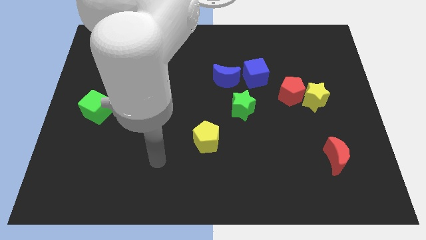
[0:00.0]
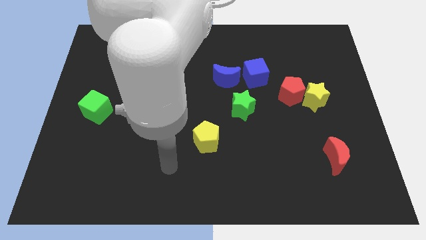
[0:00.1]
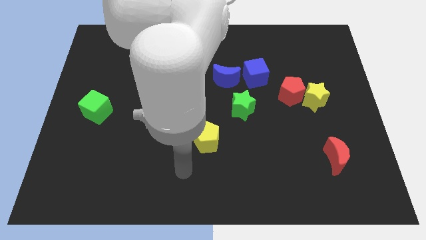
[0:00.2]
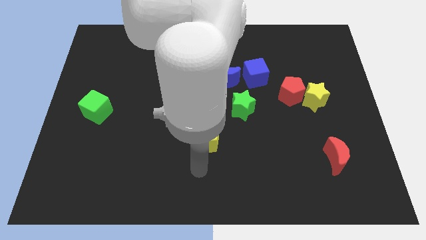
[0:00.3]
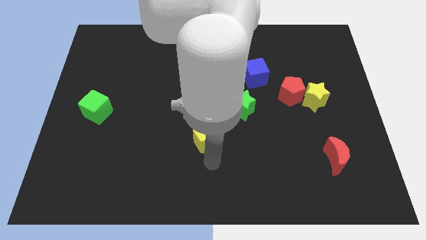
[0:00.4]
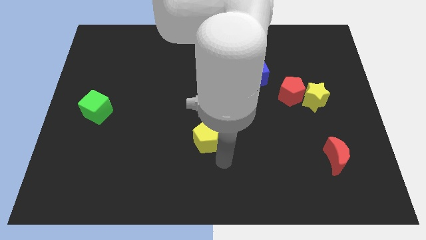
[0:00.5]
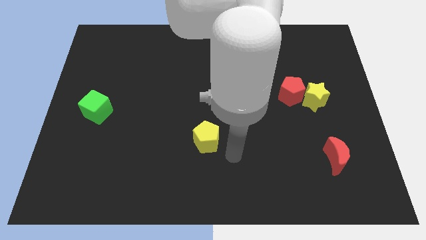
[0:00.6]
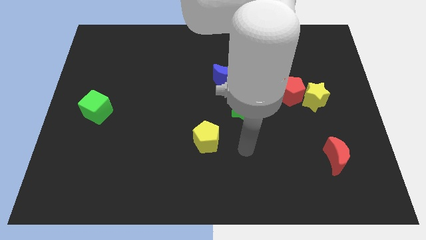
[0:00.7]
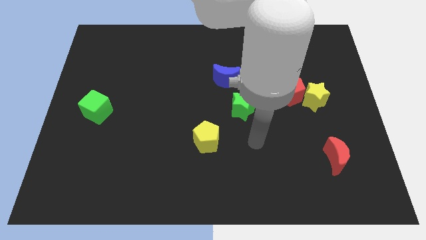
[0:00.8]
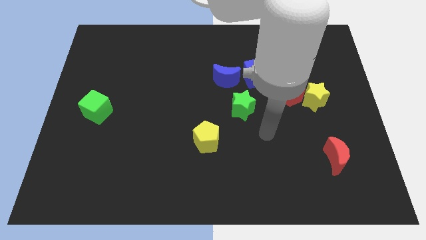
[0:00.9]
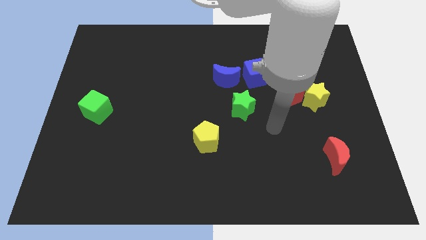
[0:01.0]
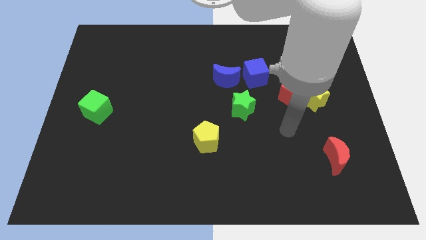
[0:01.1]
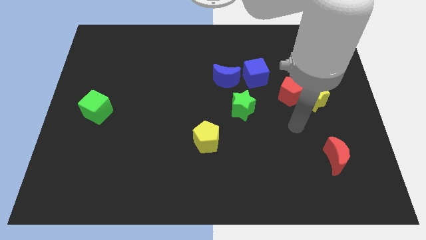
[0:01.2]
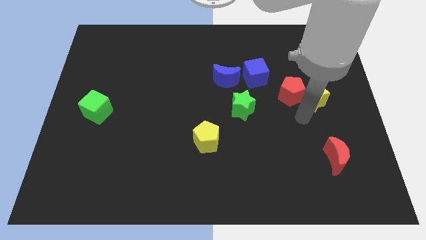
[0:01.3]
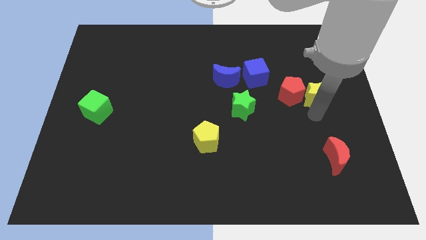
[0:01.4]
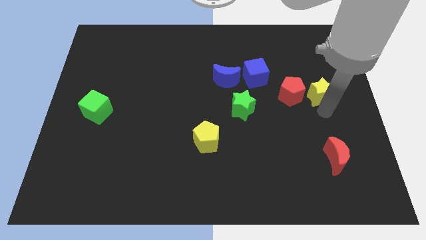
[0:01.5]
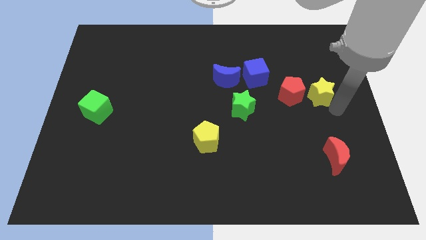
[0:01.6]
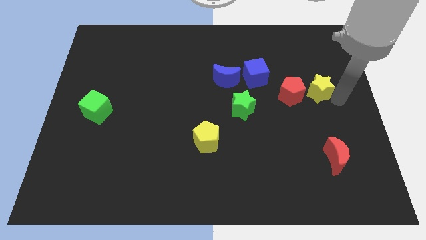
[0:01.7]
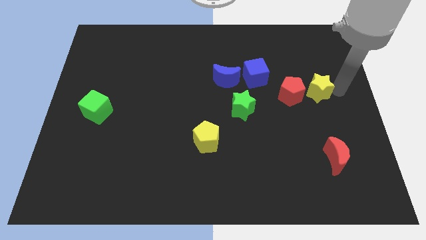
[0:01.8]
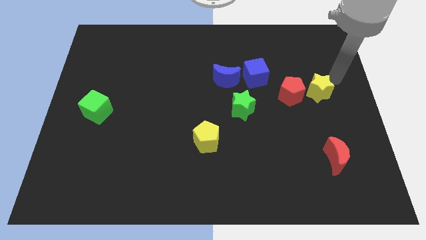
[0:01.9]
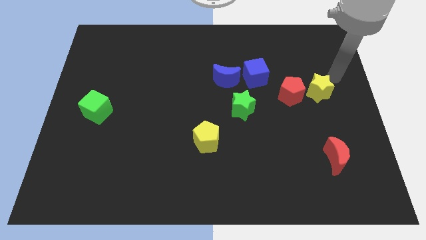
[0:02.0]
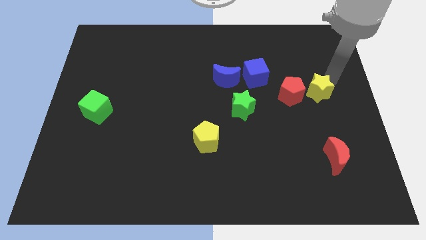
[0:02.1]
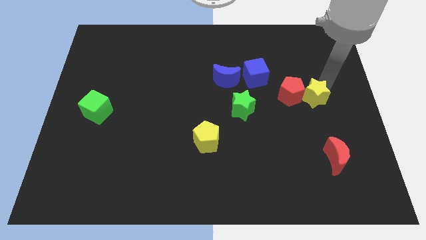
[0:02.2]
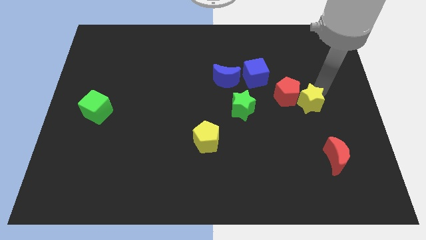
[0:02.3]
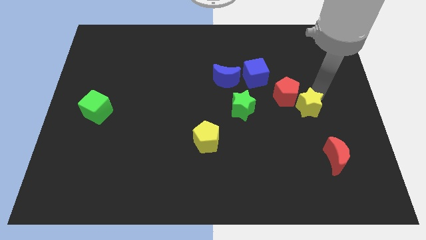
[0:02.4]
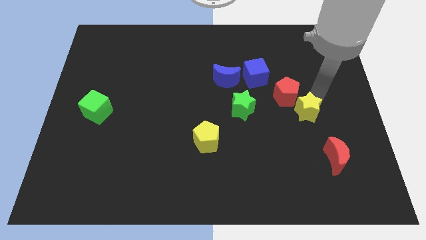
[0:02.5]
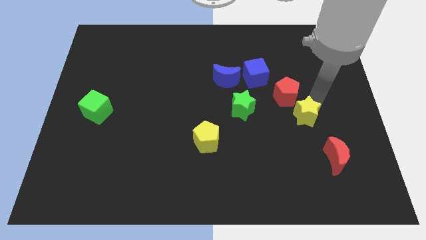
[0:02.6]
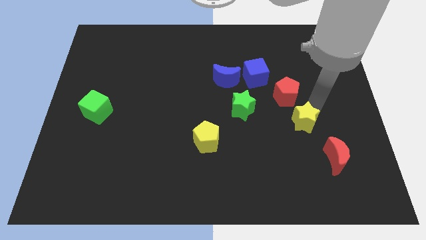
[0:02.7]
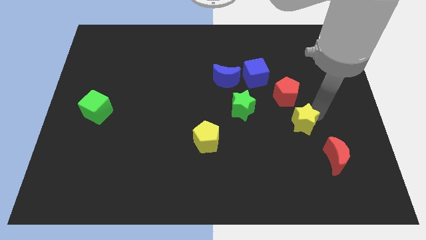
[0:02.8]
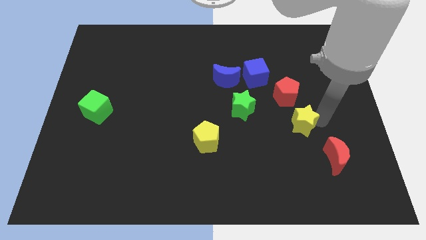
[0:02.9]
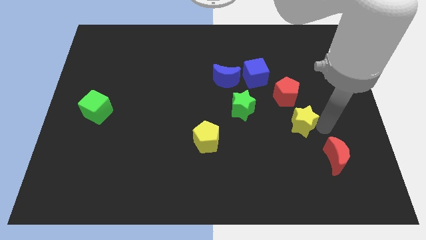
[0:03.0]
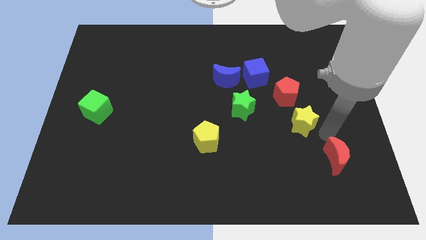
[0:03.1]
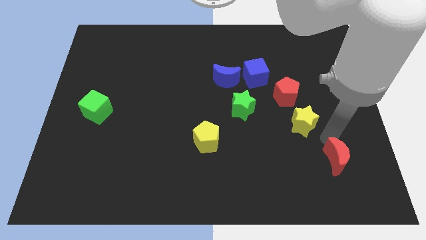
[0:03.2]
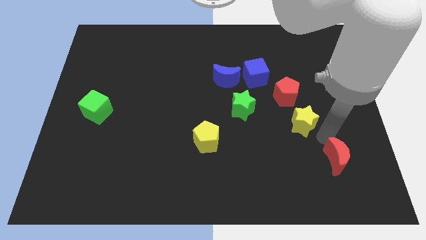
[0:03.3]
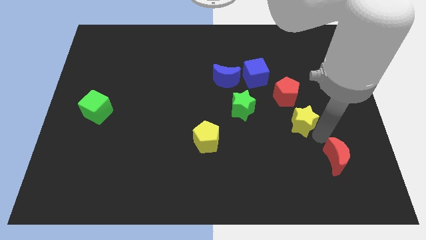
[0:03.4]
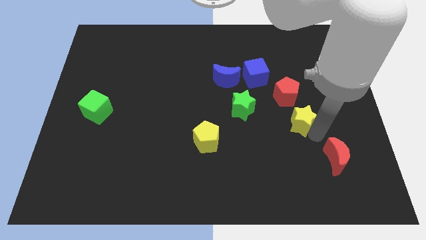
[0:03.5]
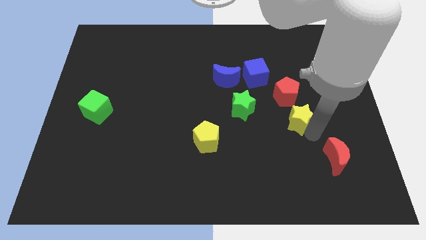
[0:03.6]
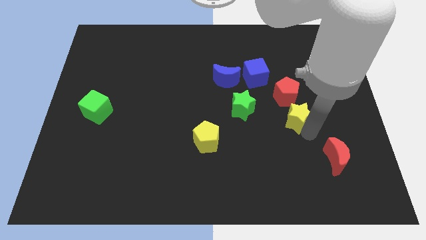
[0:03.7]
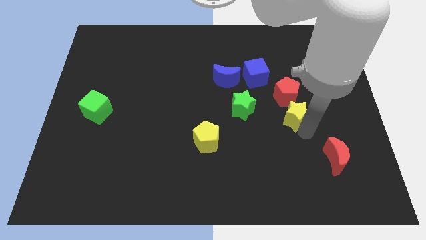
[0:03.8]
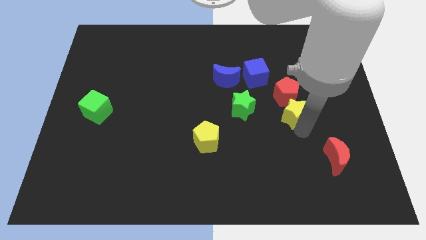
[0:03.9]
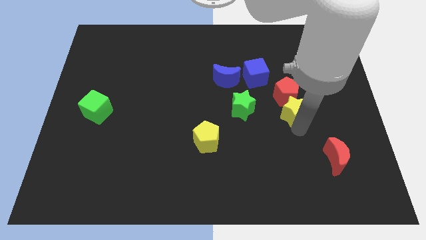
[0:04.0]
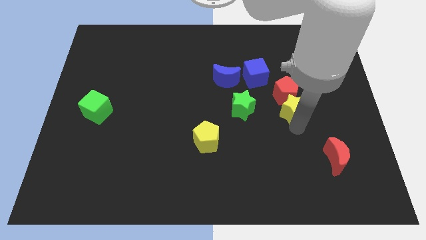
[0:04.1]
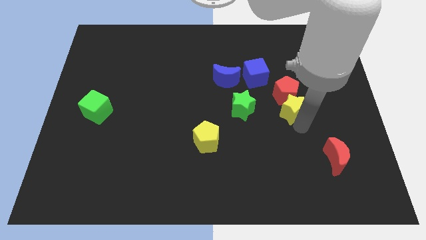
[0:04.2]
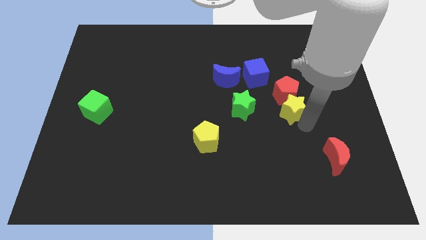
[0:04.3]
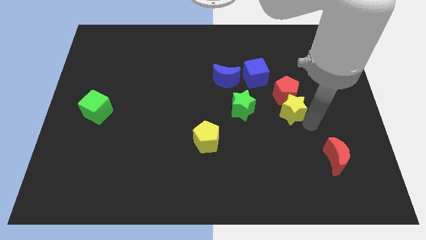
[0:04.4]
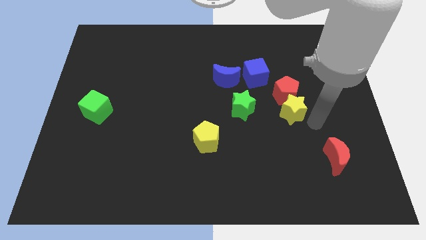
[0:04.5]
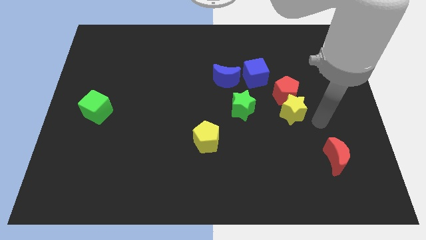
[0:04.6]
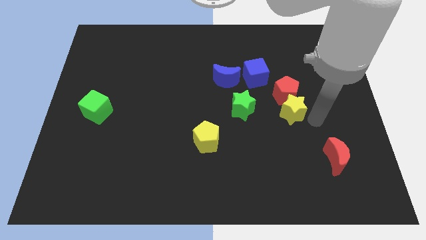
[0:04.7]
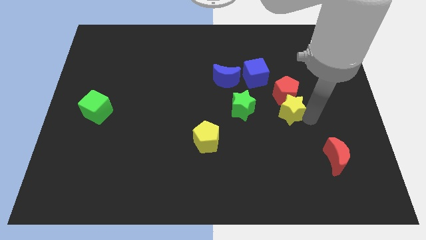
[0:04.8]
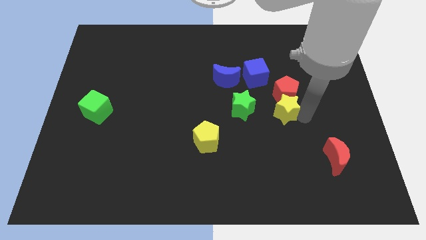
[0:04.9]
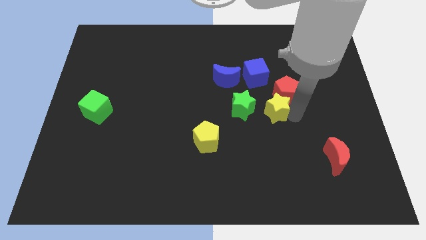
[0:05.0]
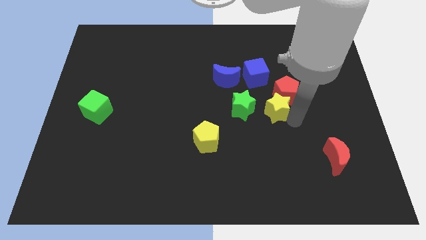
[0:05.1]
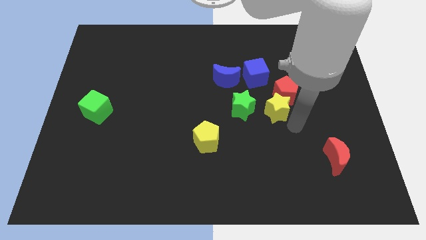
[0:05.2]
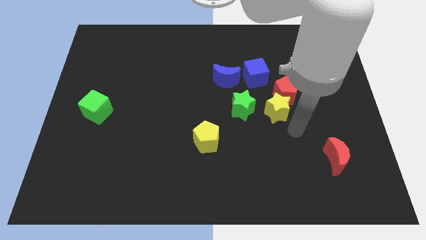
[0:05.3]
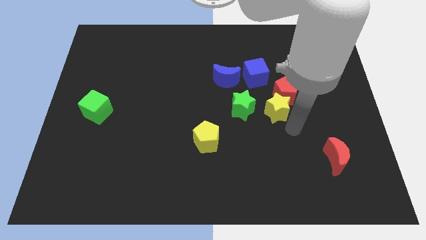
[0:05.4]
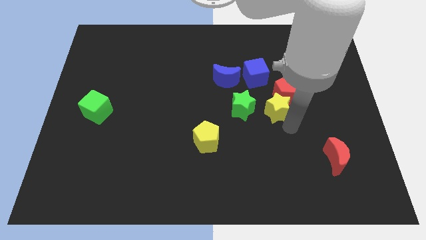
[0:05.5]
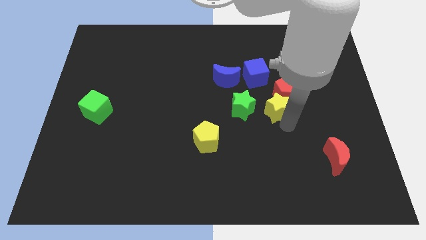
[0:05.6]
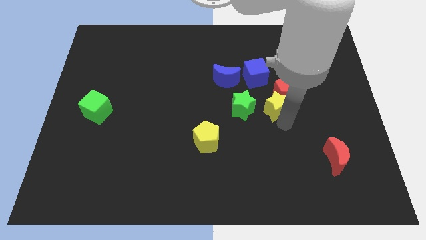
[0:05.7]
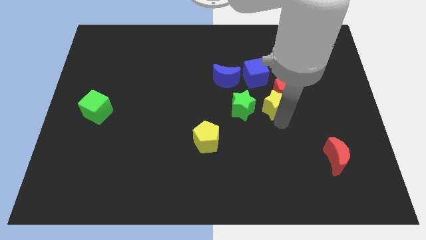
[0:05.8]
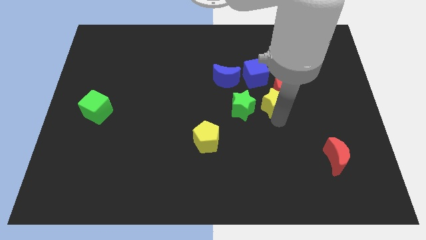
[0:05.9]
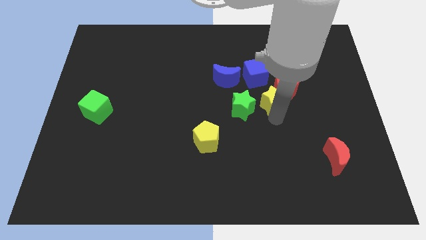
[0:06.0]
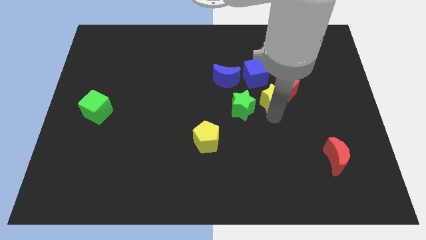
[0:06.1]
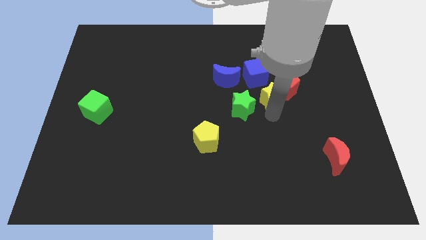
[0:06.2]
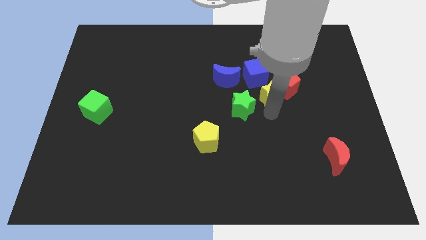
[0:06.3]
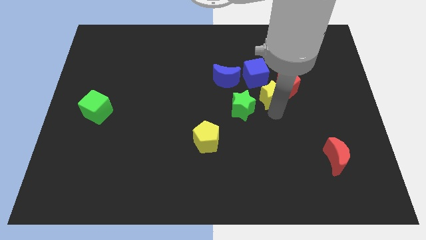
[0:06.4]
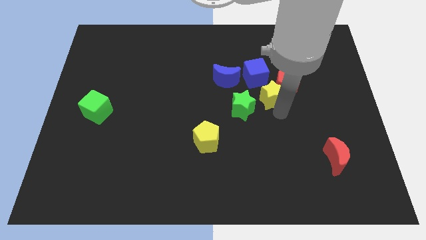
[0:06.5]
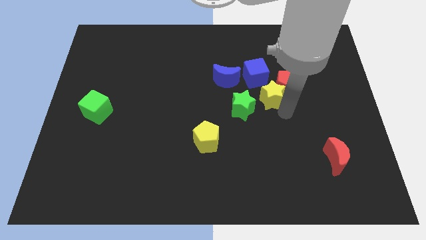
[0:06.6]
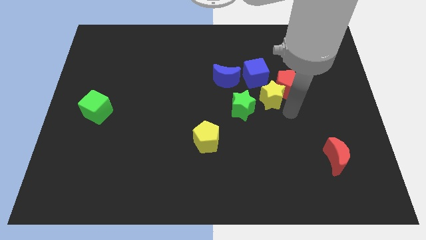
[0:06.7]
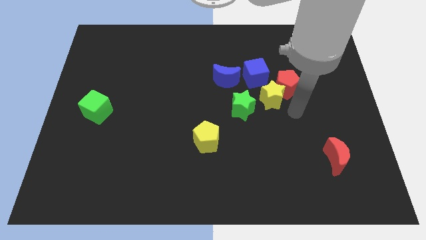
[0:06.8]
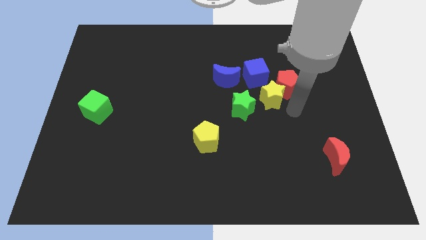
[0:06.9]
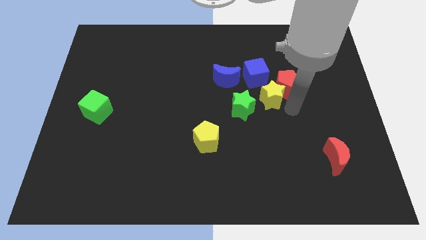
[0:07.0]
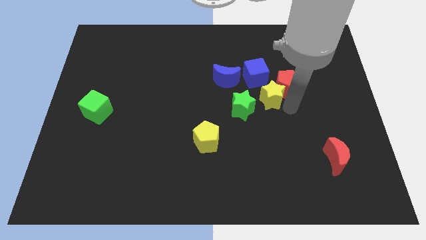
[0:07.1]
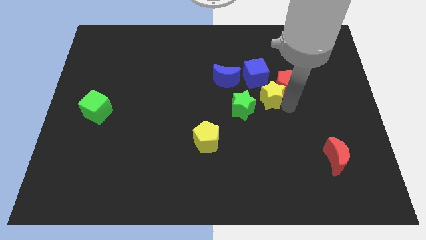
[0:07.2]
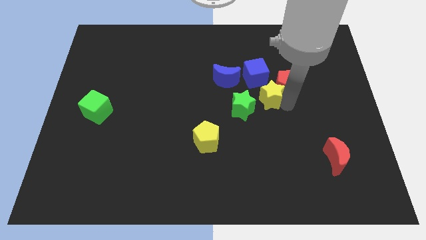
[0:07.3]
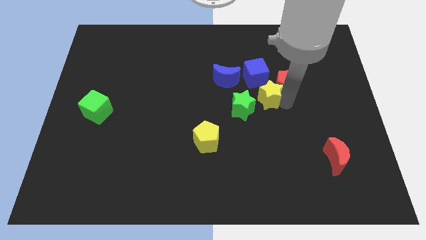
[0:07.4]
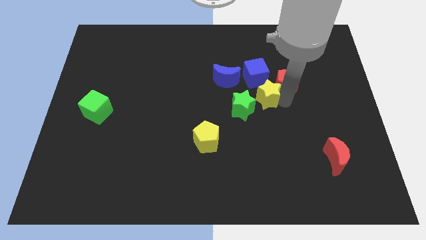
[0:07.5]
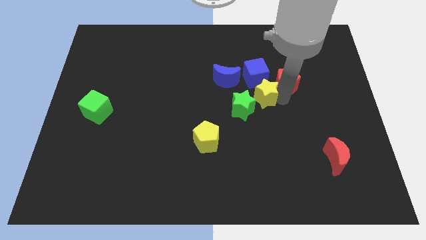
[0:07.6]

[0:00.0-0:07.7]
put the yellow star to the middle of the board
